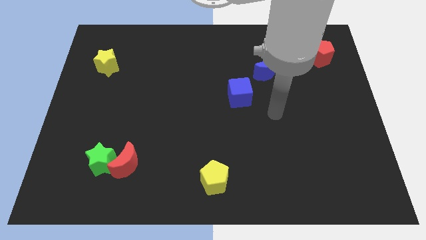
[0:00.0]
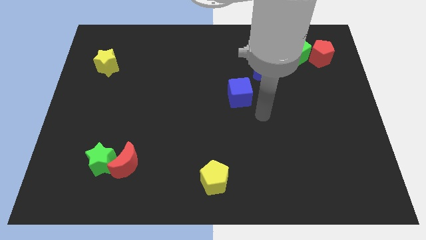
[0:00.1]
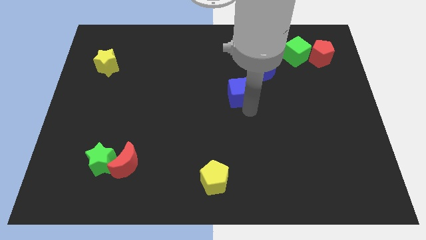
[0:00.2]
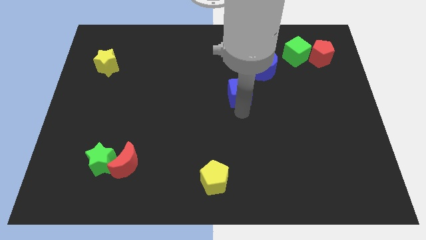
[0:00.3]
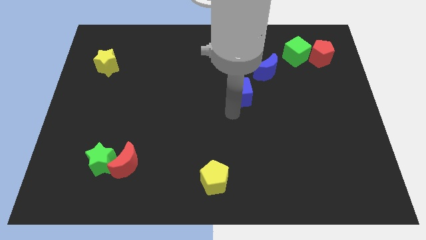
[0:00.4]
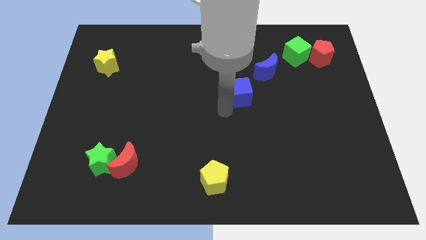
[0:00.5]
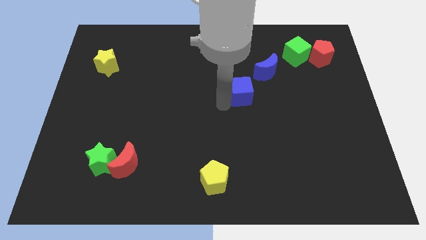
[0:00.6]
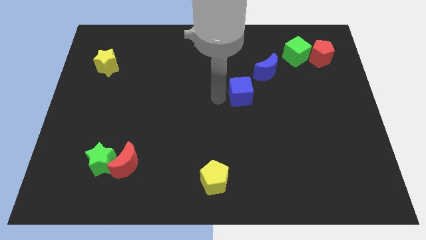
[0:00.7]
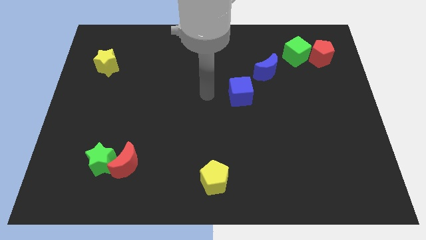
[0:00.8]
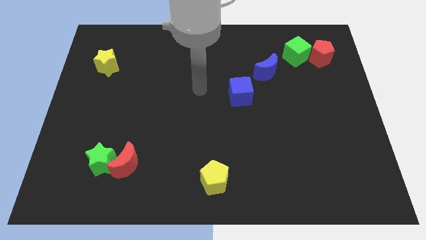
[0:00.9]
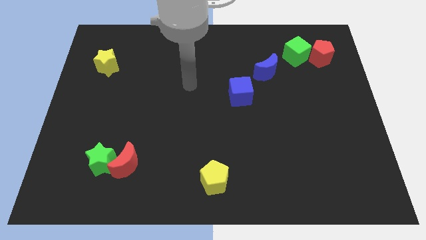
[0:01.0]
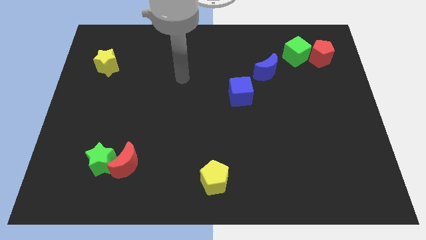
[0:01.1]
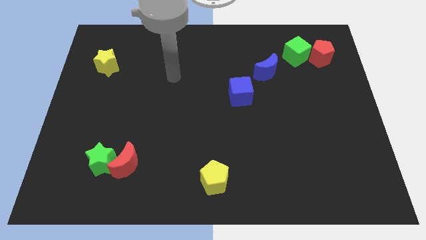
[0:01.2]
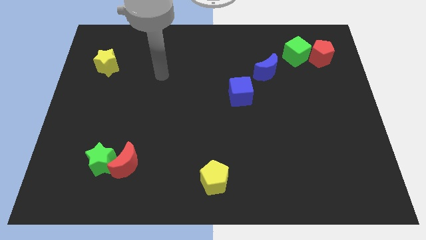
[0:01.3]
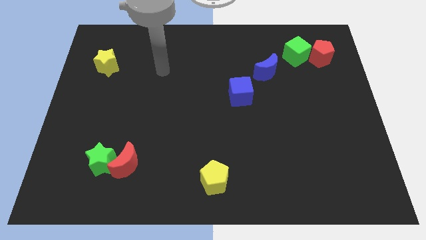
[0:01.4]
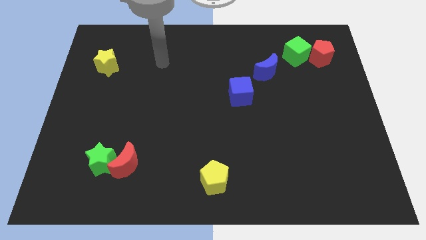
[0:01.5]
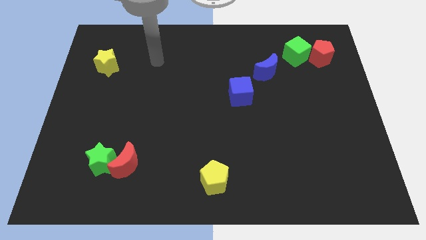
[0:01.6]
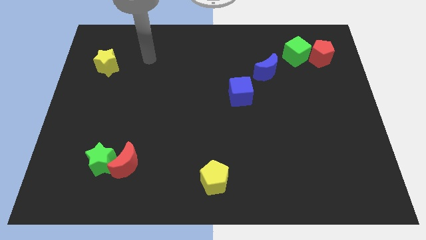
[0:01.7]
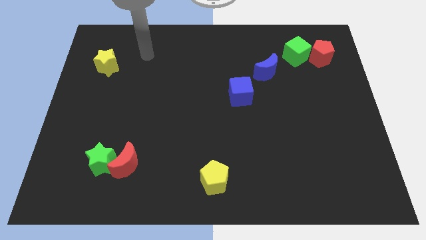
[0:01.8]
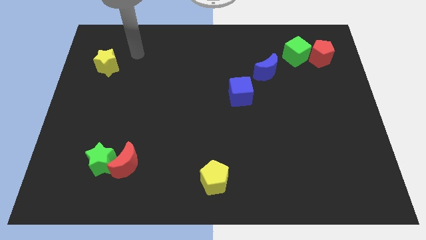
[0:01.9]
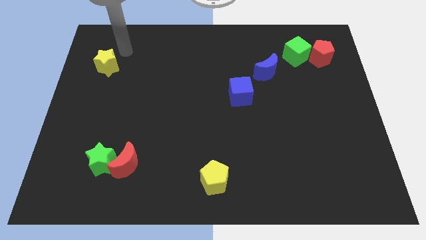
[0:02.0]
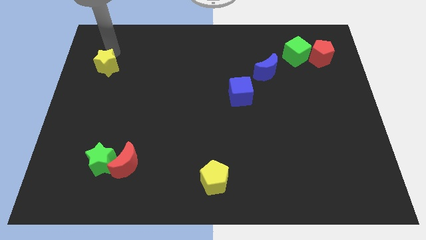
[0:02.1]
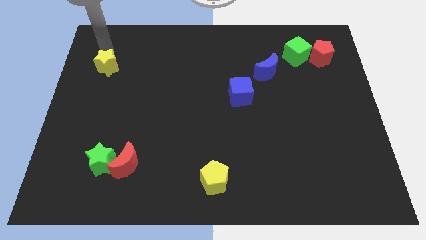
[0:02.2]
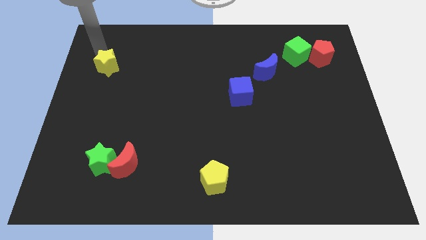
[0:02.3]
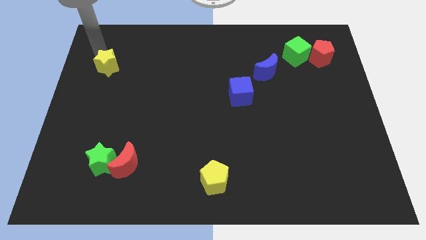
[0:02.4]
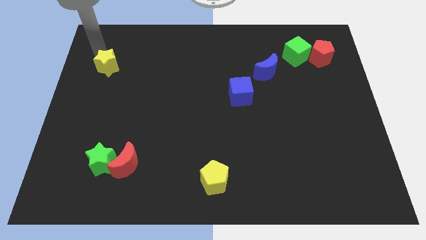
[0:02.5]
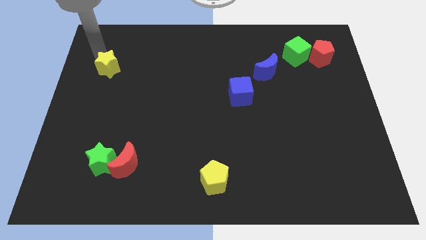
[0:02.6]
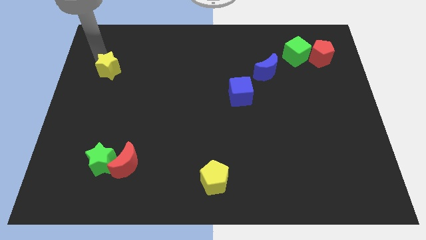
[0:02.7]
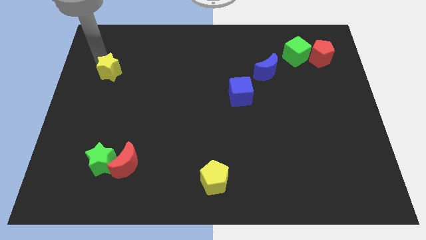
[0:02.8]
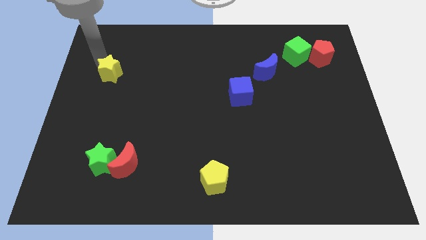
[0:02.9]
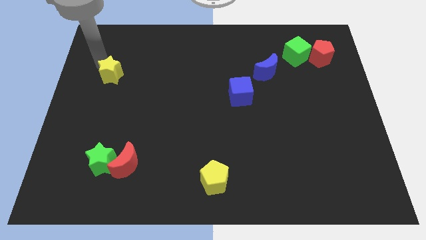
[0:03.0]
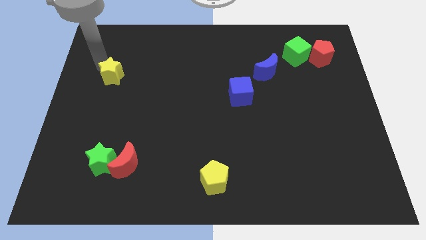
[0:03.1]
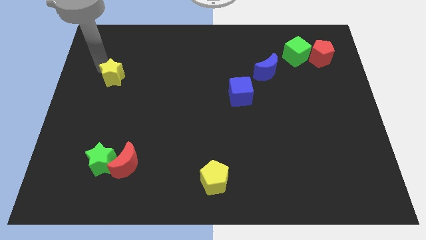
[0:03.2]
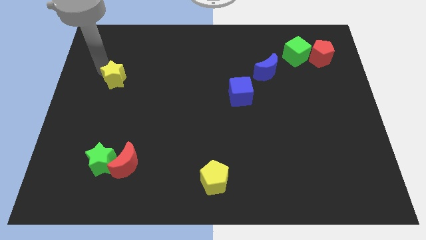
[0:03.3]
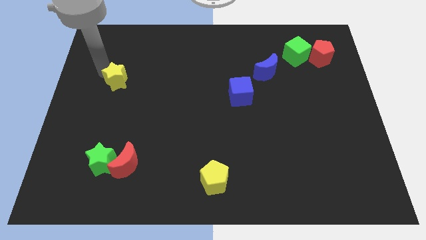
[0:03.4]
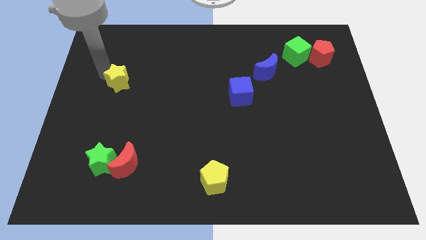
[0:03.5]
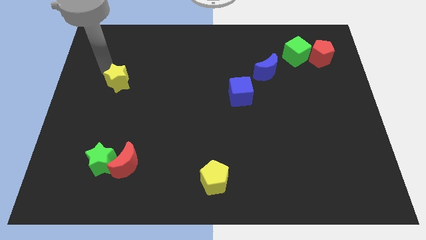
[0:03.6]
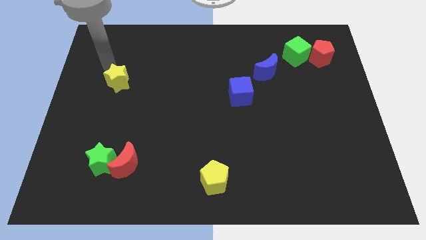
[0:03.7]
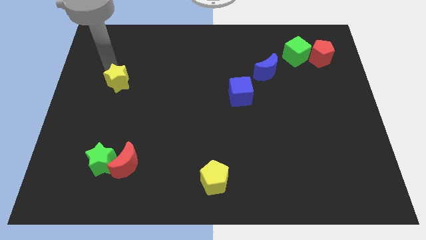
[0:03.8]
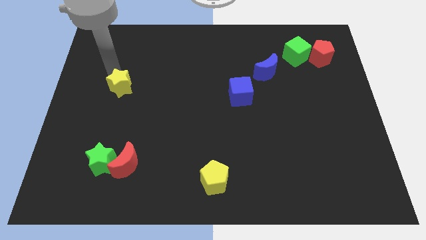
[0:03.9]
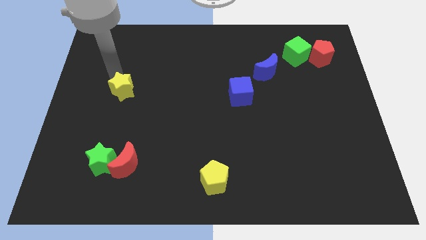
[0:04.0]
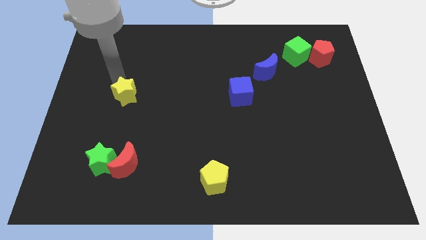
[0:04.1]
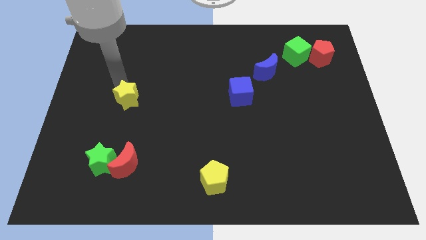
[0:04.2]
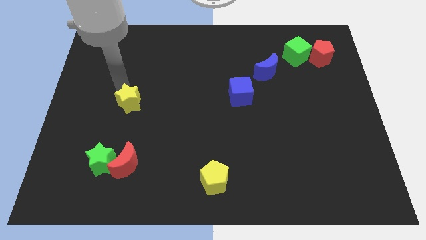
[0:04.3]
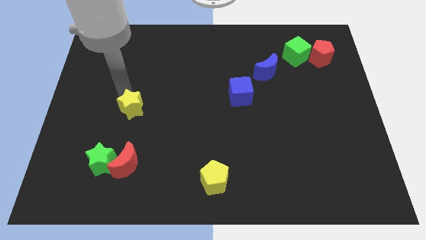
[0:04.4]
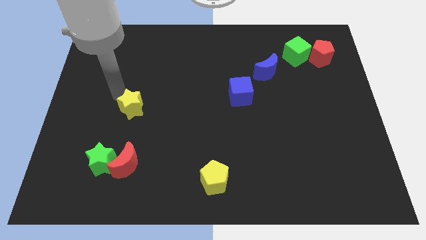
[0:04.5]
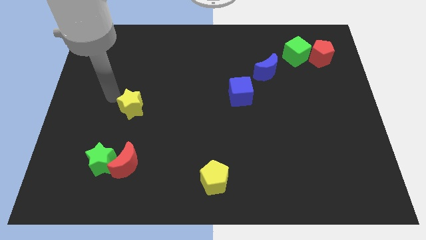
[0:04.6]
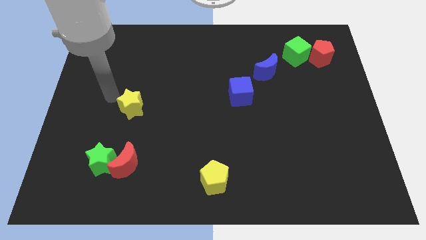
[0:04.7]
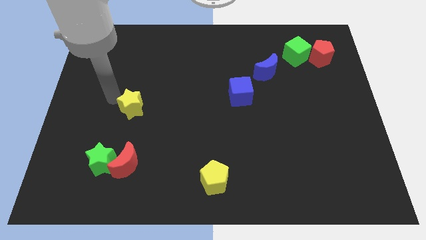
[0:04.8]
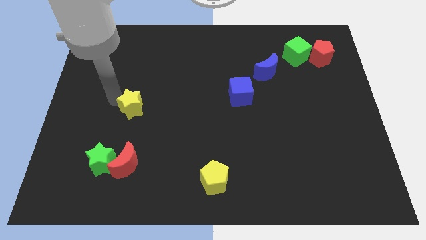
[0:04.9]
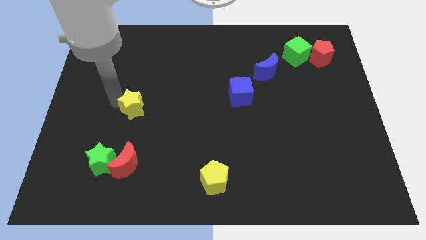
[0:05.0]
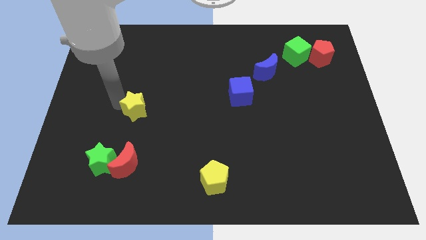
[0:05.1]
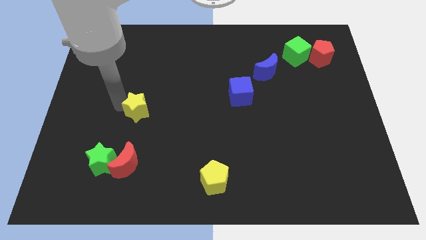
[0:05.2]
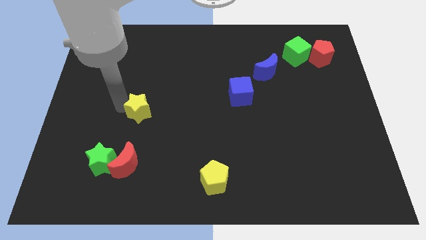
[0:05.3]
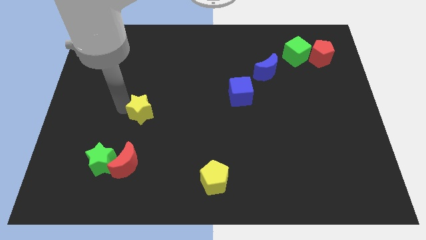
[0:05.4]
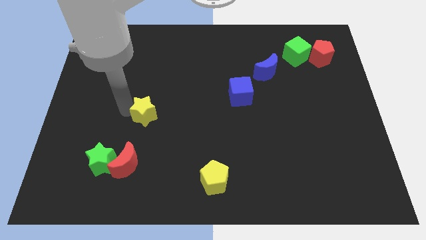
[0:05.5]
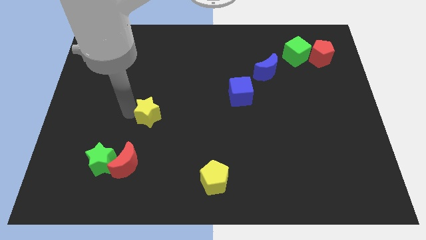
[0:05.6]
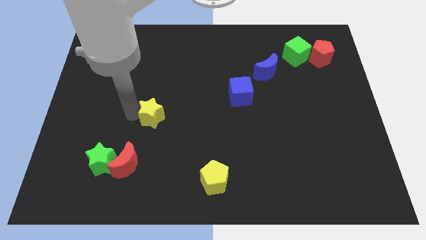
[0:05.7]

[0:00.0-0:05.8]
move the yellow star downwards and then right

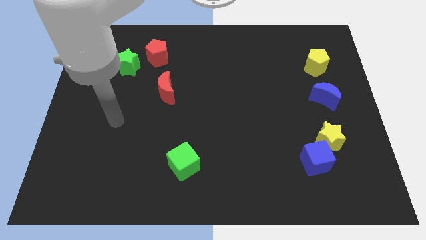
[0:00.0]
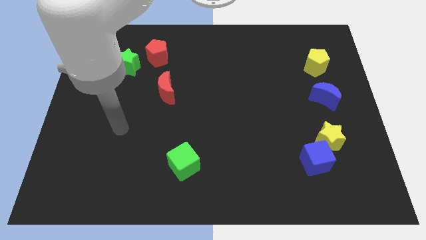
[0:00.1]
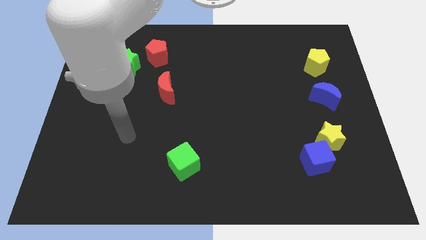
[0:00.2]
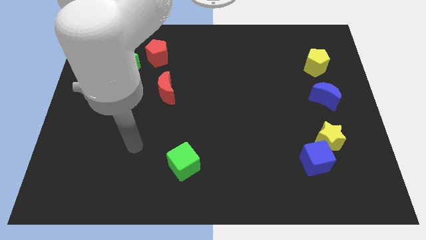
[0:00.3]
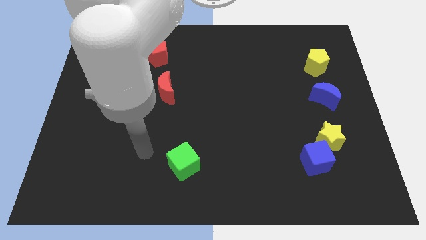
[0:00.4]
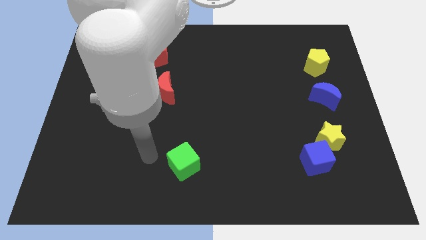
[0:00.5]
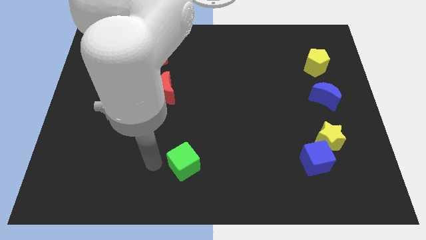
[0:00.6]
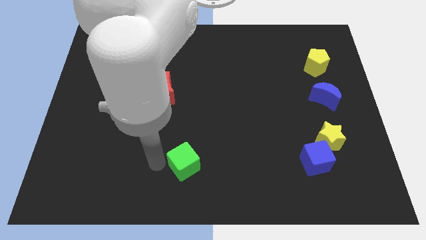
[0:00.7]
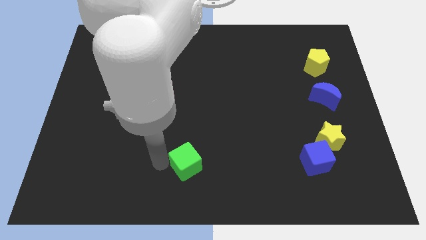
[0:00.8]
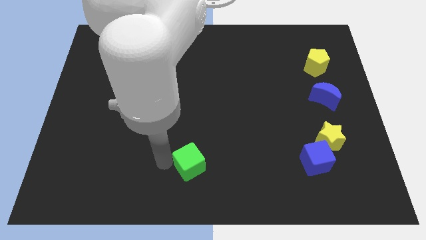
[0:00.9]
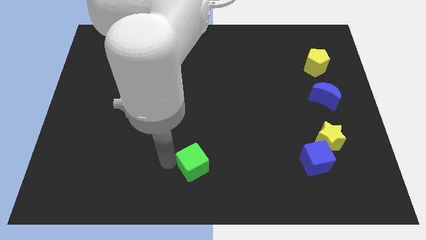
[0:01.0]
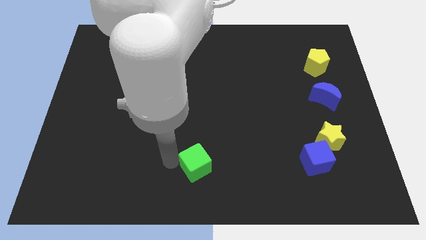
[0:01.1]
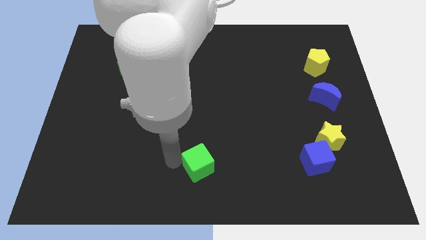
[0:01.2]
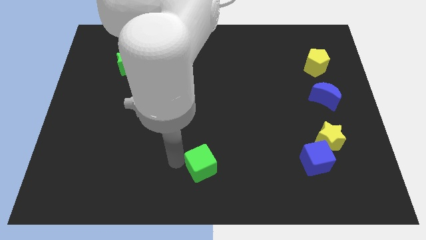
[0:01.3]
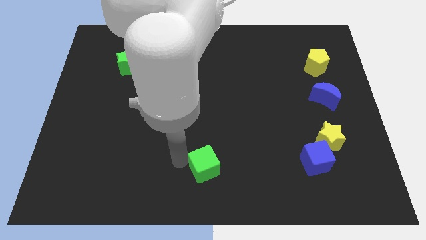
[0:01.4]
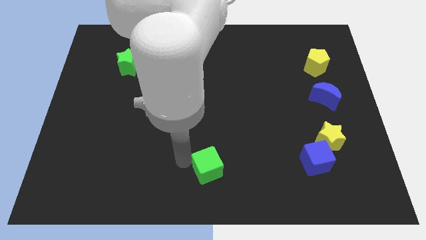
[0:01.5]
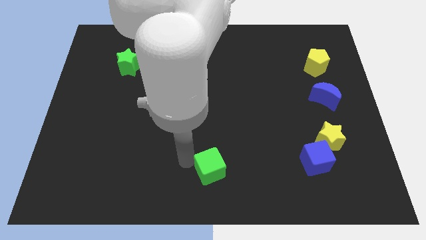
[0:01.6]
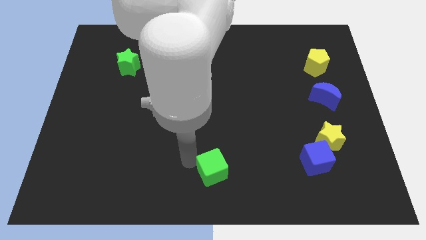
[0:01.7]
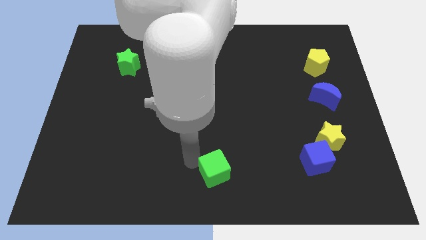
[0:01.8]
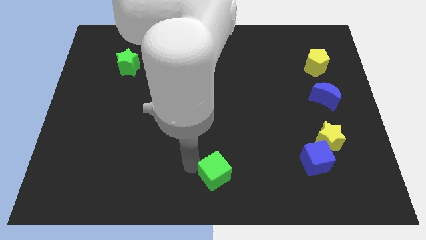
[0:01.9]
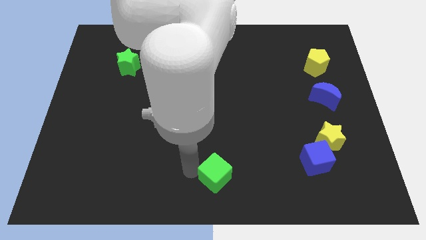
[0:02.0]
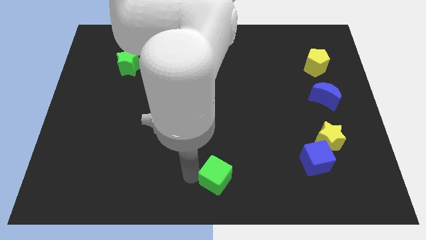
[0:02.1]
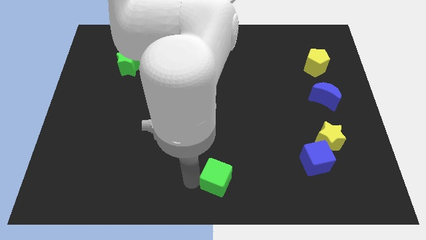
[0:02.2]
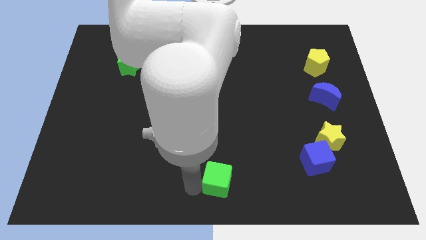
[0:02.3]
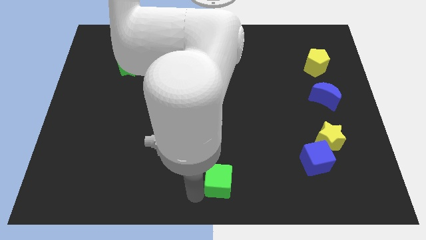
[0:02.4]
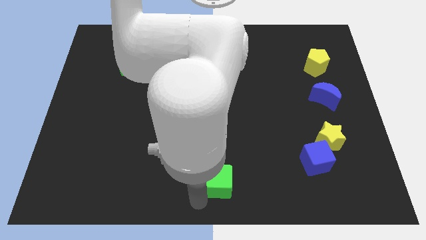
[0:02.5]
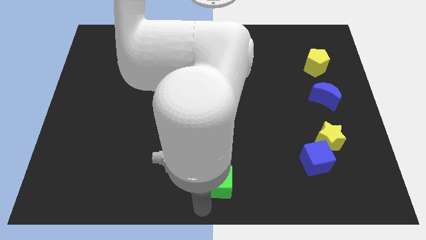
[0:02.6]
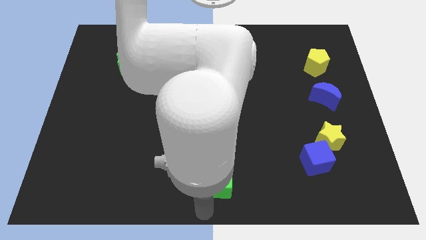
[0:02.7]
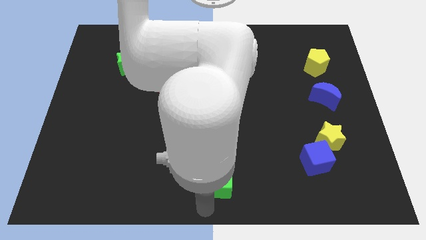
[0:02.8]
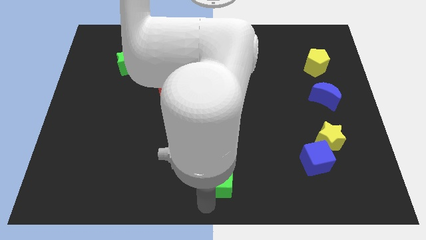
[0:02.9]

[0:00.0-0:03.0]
push the green cube a bit to the right
